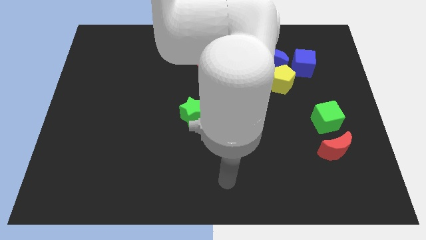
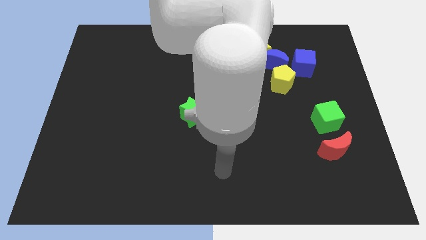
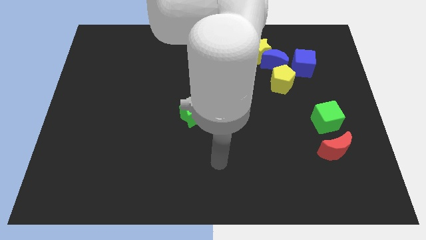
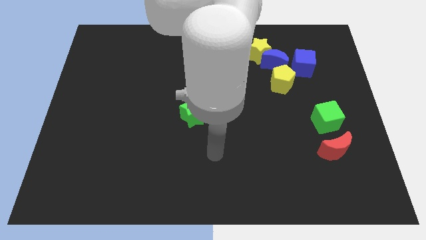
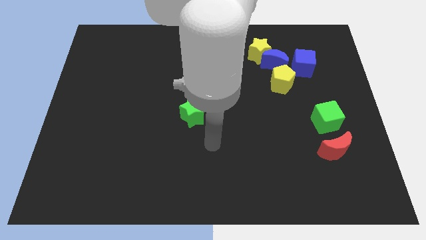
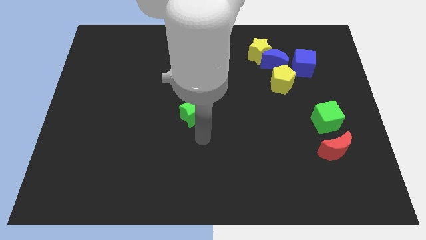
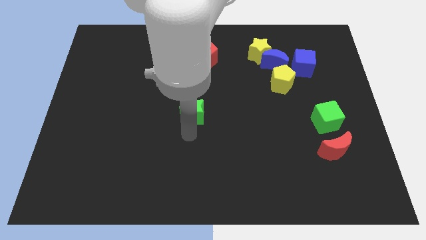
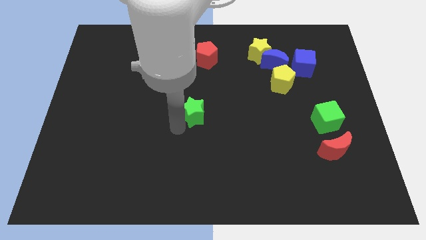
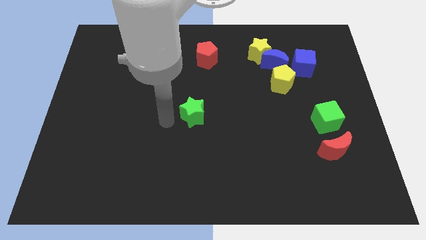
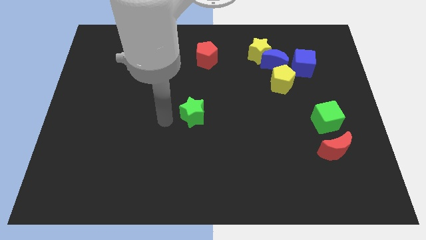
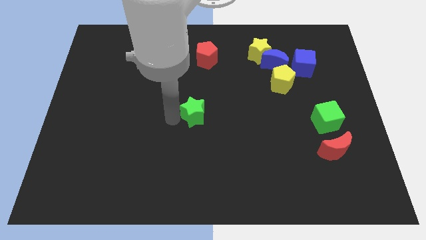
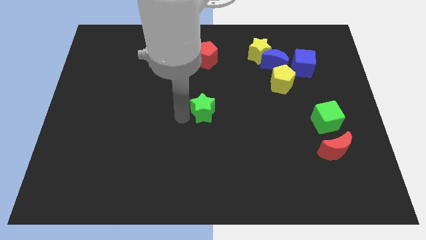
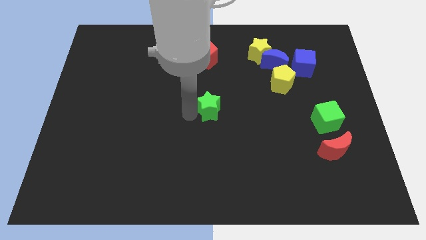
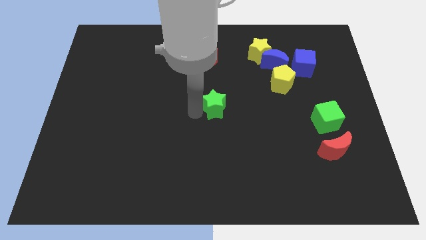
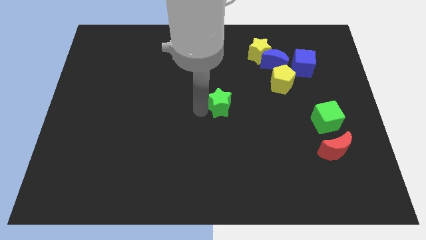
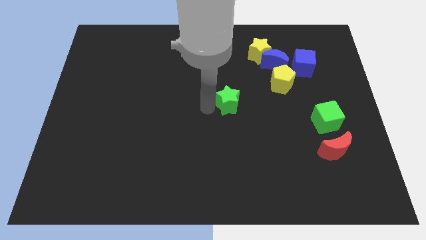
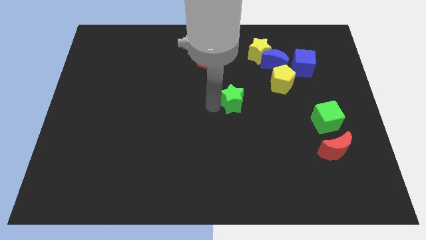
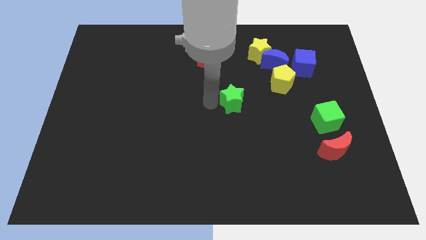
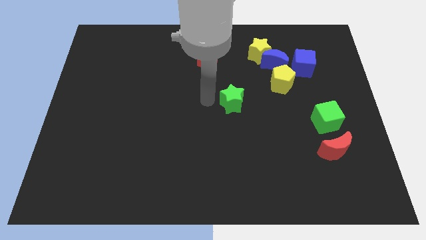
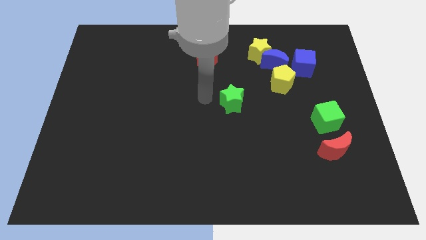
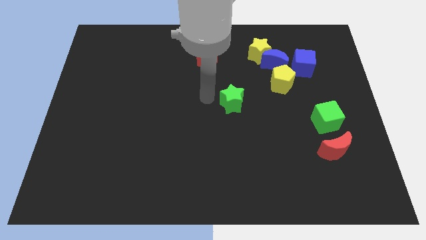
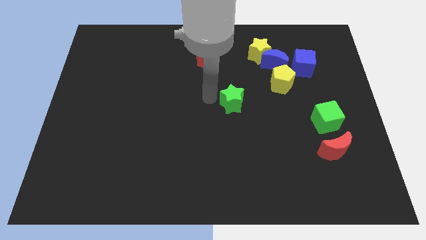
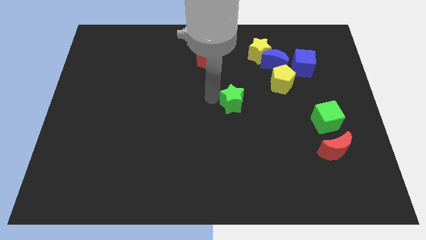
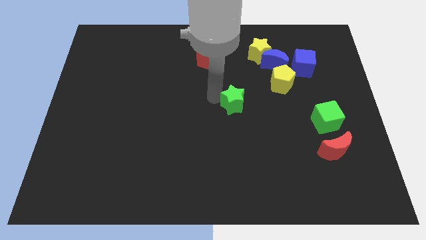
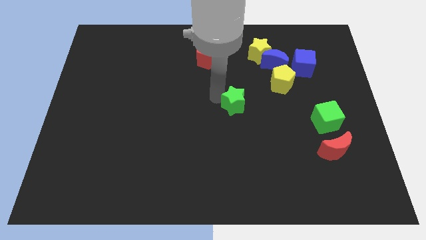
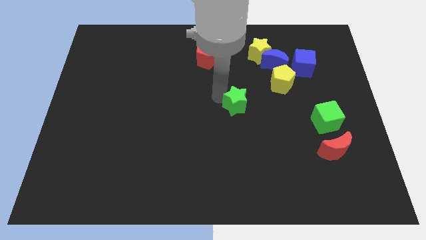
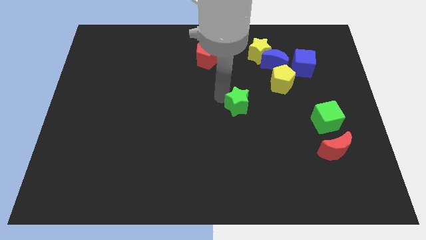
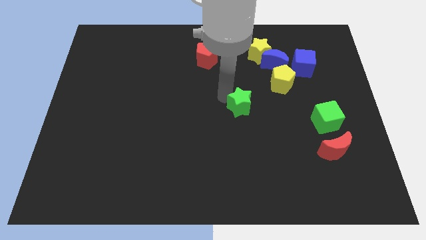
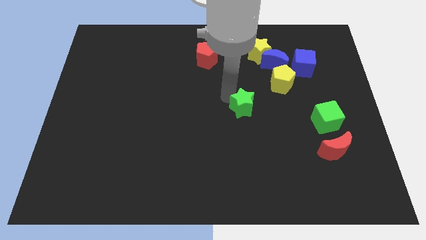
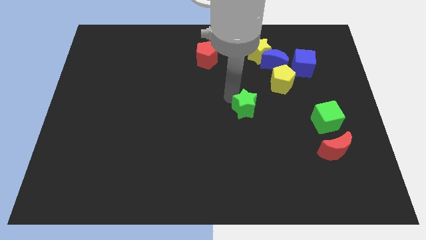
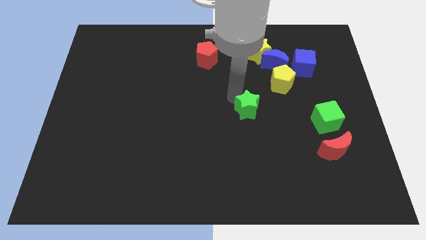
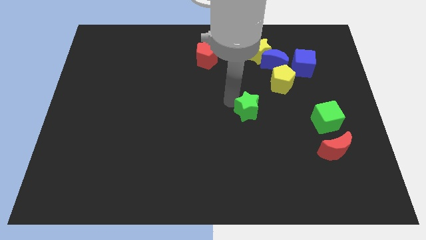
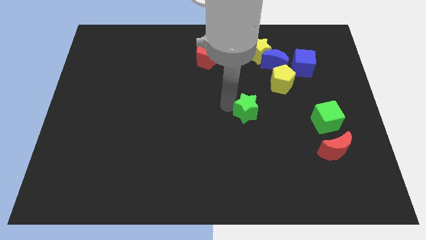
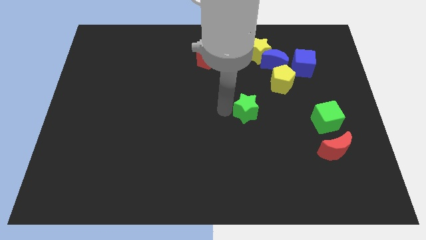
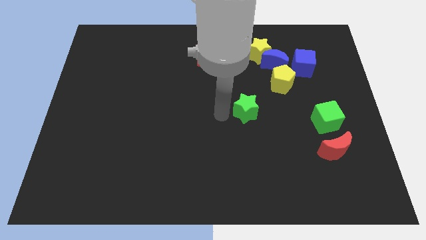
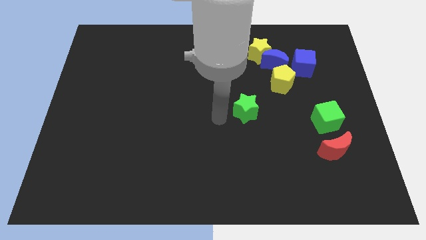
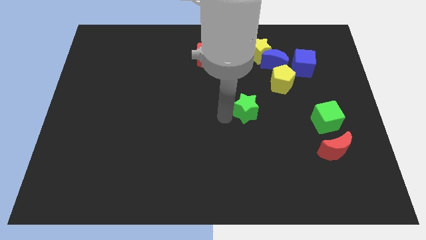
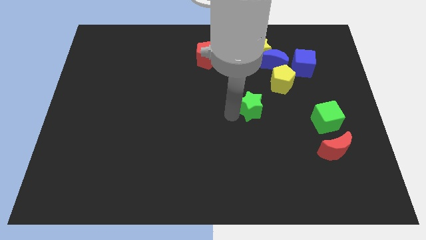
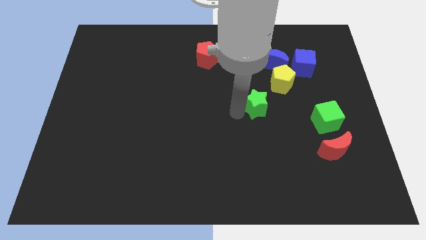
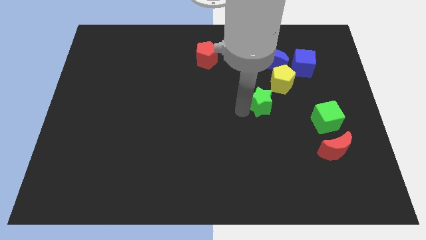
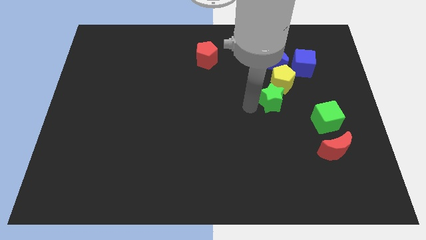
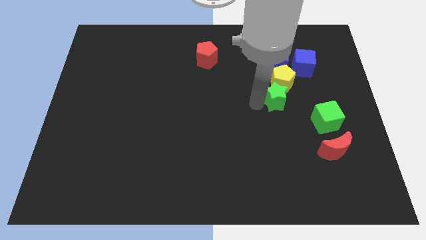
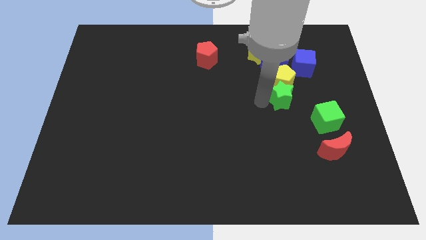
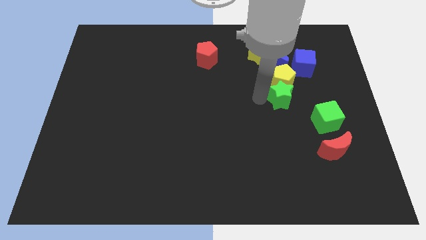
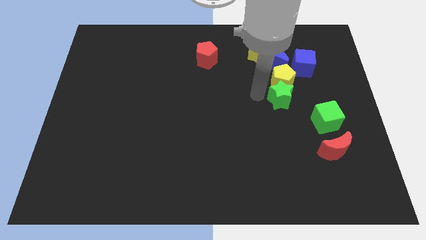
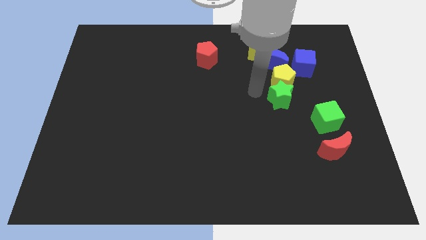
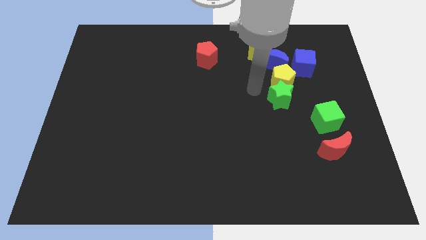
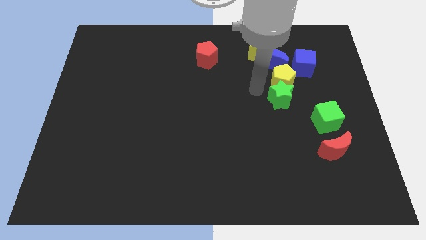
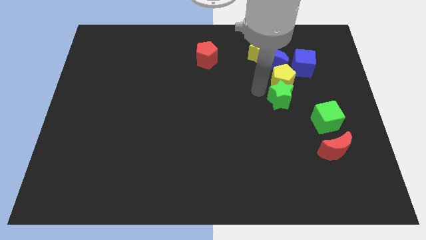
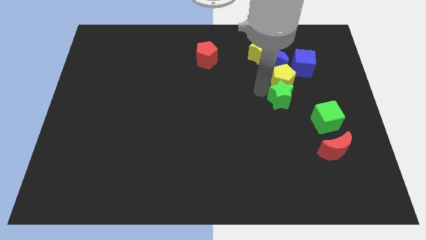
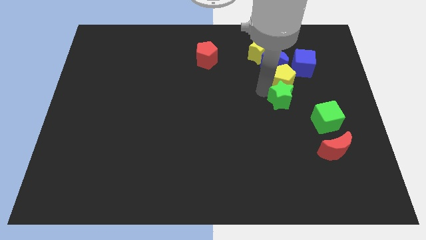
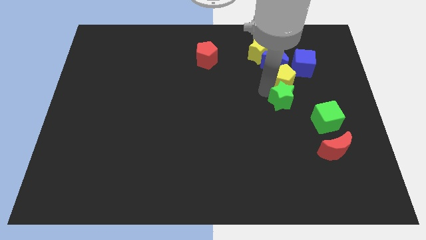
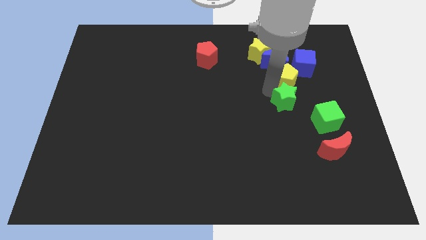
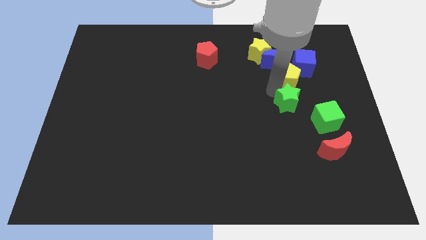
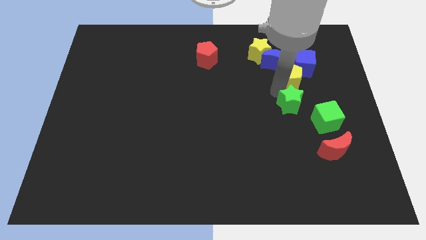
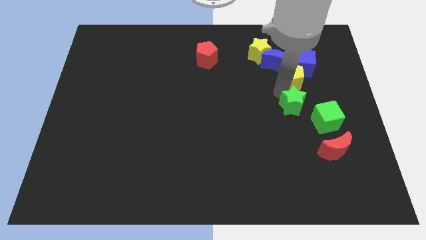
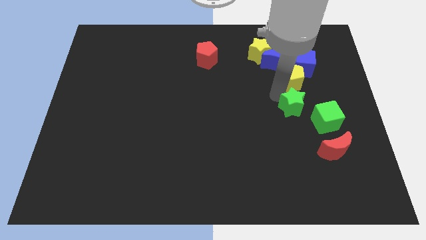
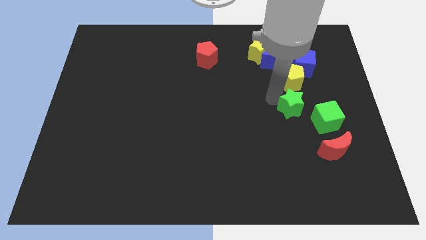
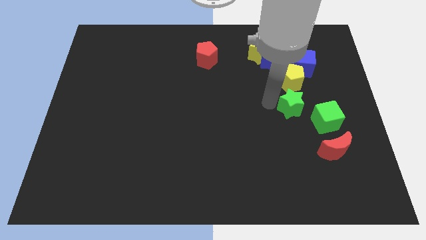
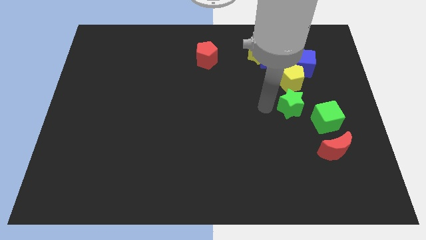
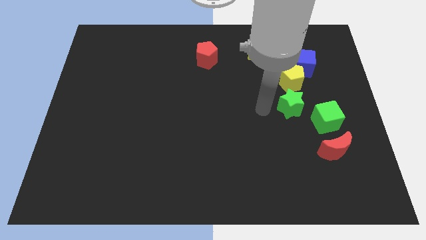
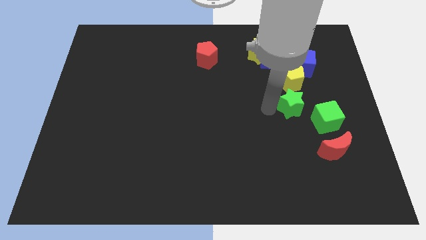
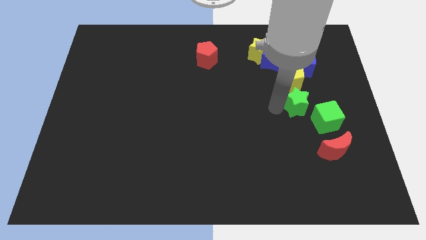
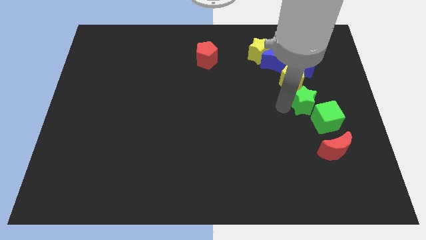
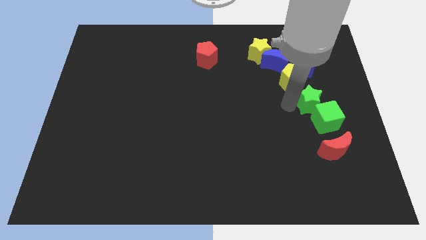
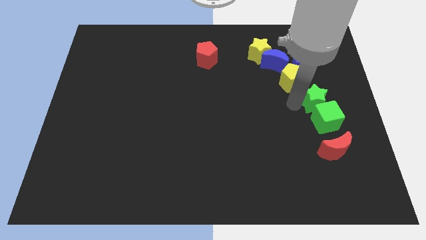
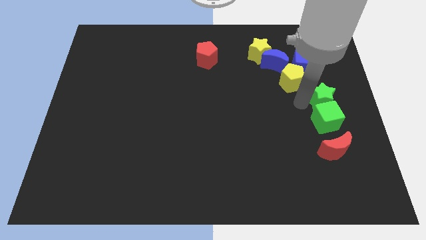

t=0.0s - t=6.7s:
push the green star to the right side
